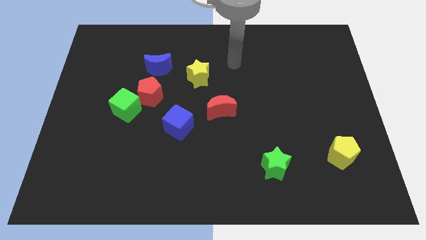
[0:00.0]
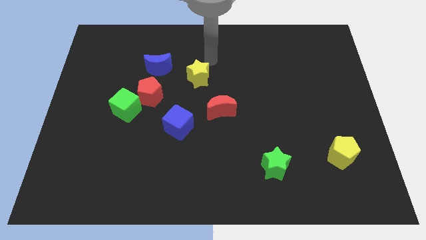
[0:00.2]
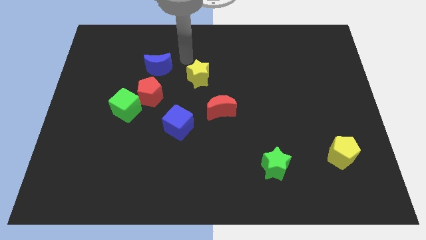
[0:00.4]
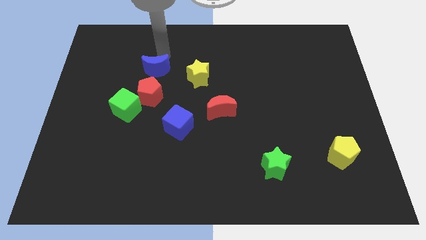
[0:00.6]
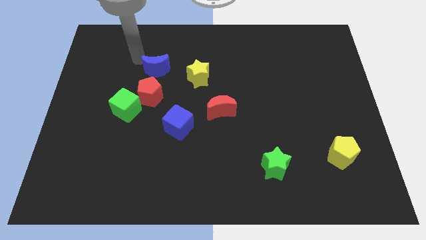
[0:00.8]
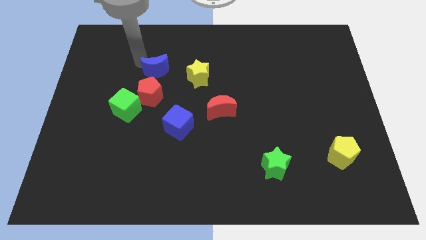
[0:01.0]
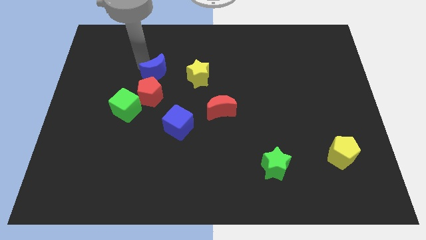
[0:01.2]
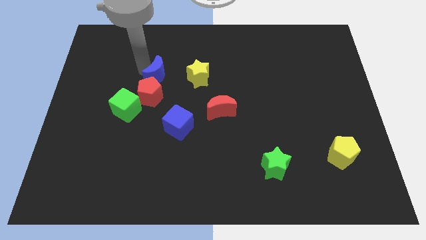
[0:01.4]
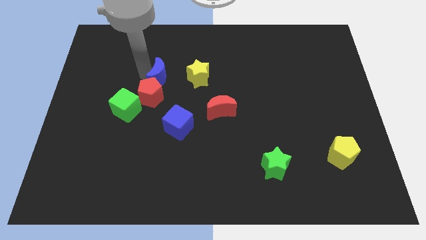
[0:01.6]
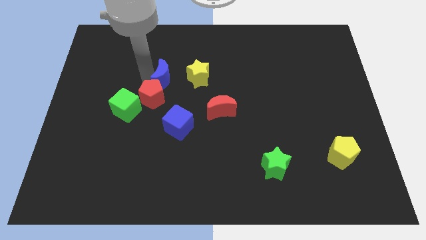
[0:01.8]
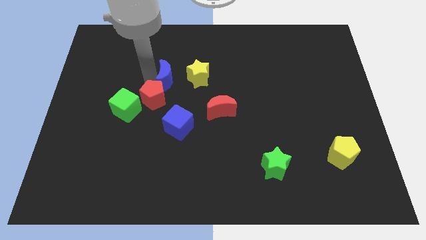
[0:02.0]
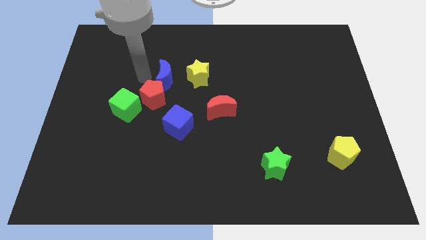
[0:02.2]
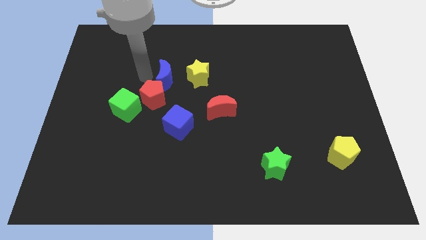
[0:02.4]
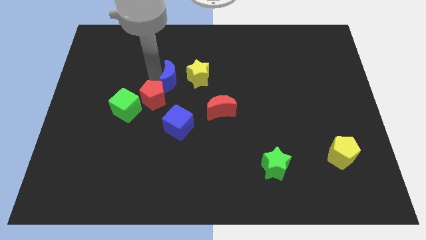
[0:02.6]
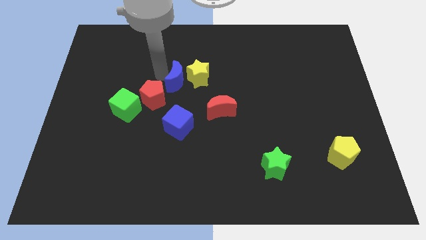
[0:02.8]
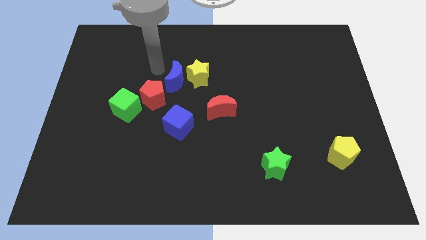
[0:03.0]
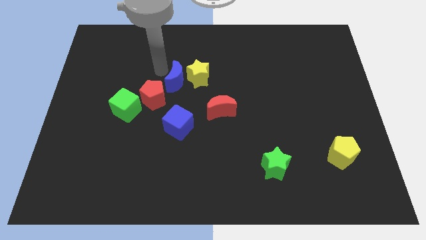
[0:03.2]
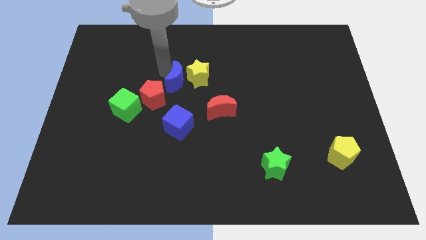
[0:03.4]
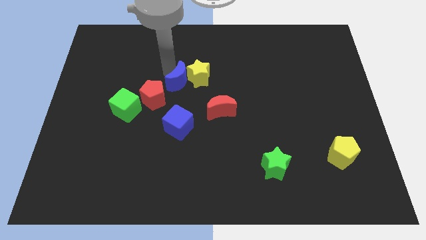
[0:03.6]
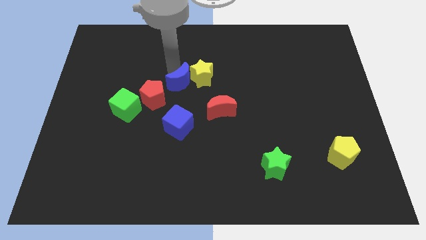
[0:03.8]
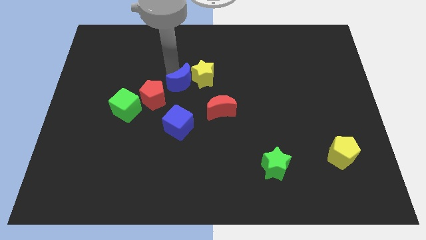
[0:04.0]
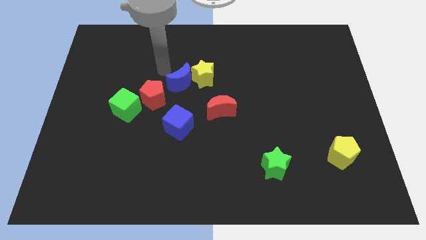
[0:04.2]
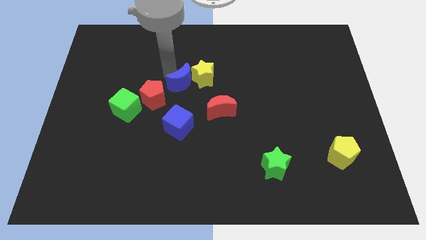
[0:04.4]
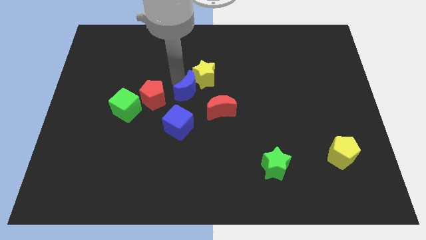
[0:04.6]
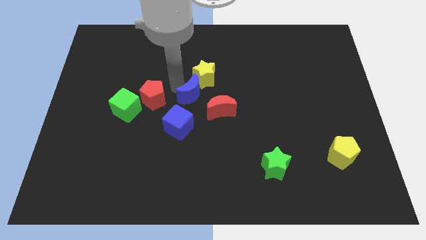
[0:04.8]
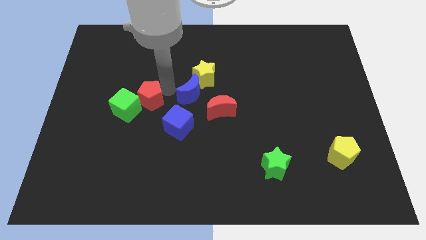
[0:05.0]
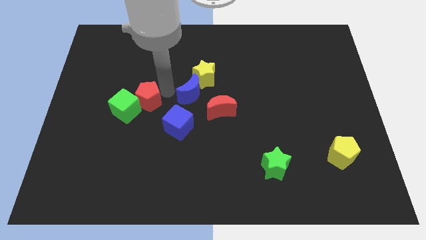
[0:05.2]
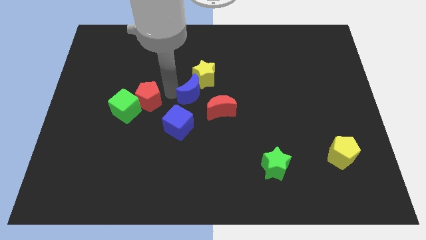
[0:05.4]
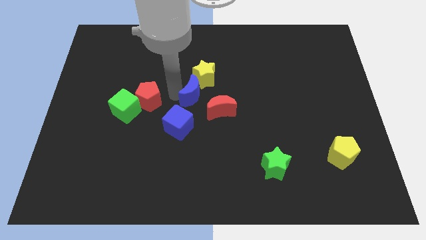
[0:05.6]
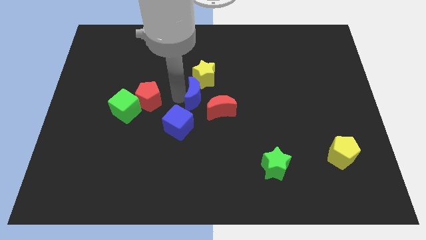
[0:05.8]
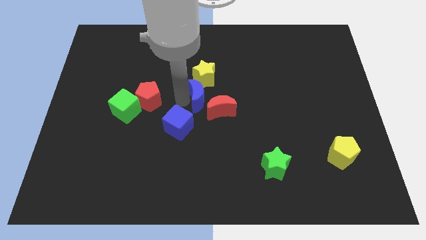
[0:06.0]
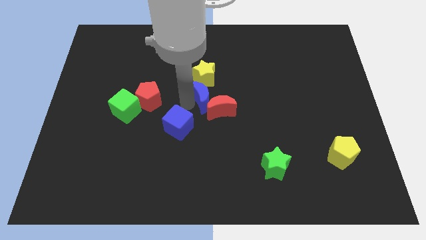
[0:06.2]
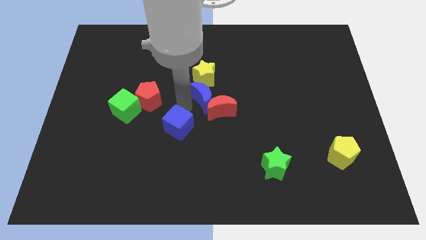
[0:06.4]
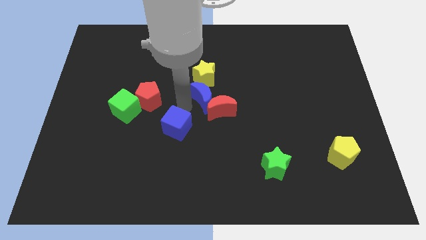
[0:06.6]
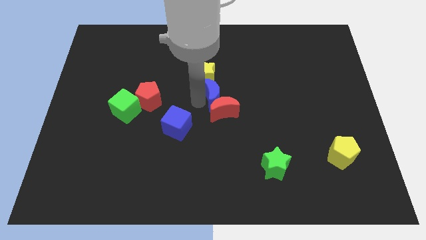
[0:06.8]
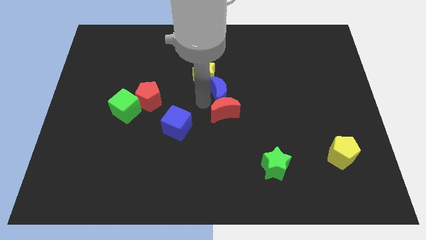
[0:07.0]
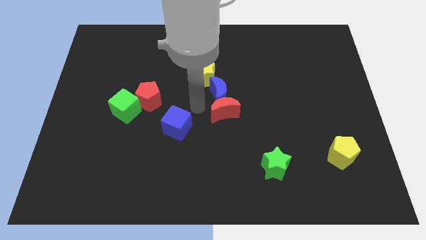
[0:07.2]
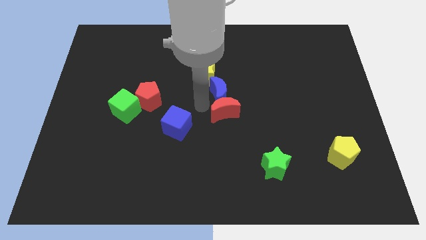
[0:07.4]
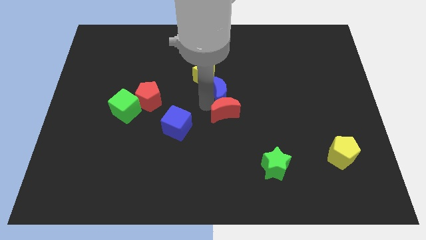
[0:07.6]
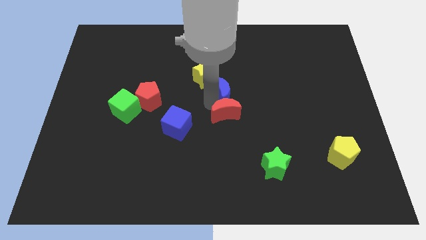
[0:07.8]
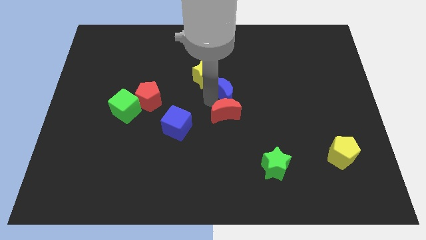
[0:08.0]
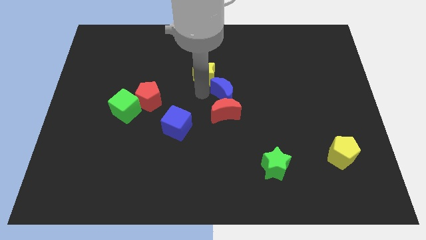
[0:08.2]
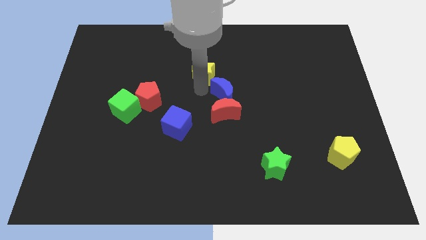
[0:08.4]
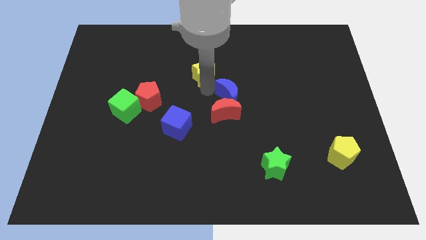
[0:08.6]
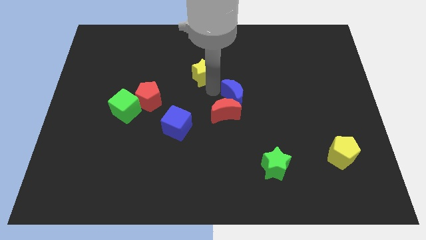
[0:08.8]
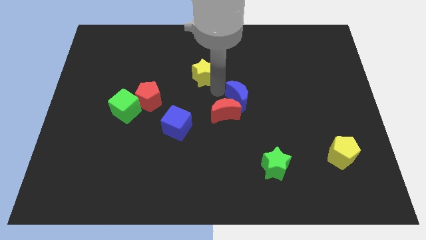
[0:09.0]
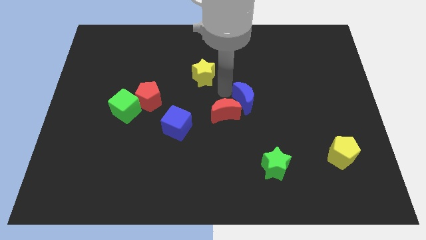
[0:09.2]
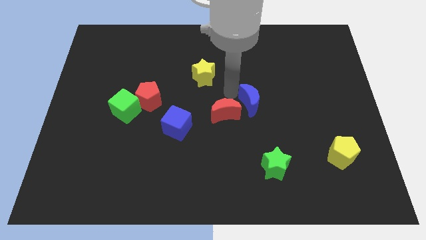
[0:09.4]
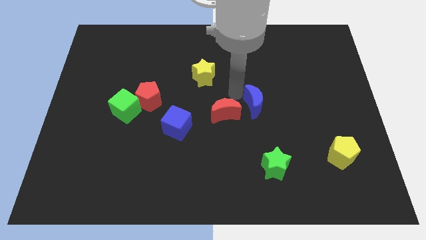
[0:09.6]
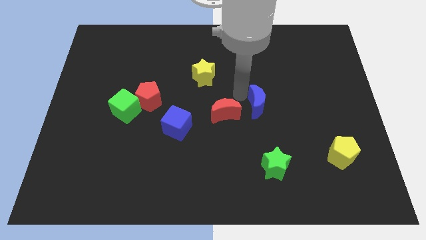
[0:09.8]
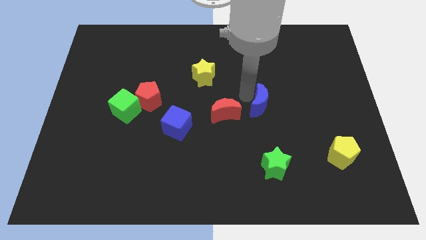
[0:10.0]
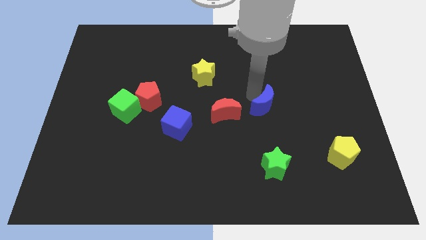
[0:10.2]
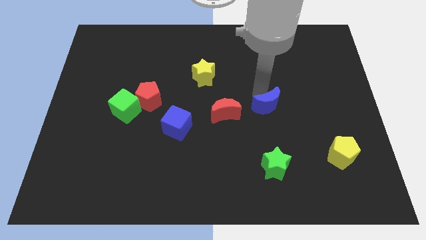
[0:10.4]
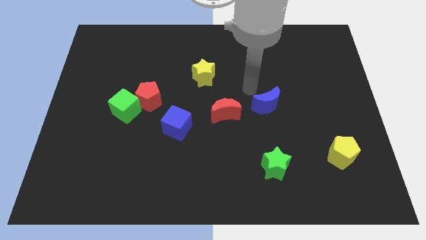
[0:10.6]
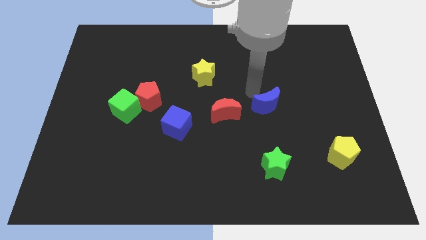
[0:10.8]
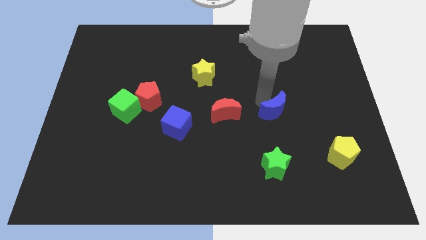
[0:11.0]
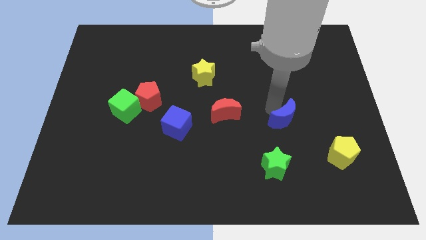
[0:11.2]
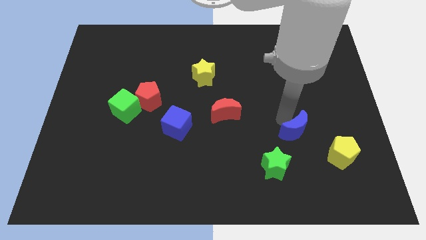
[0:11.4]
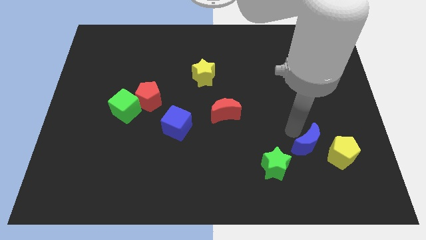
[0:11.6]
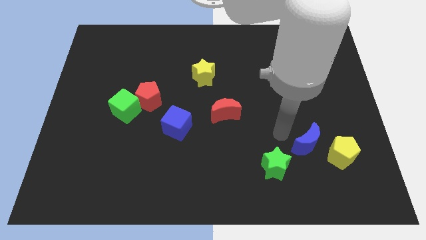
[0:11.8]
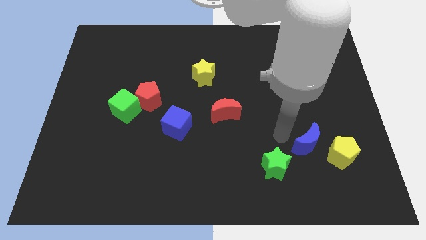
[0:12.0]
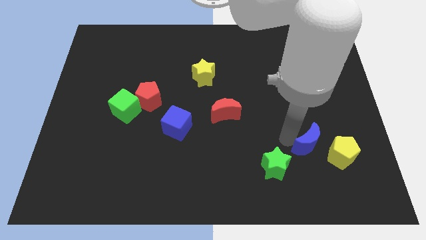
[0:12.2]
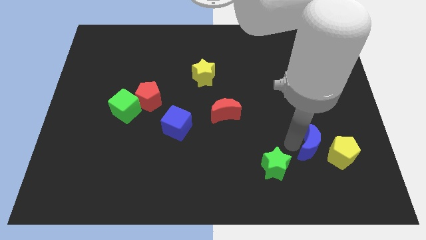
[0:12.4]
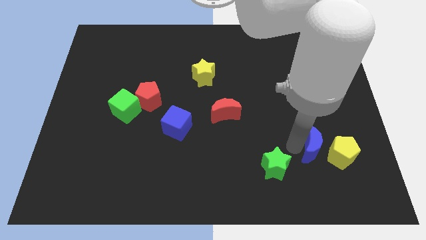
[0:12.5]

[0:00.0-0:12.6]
push the blue moon next to the yellow pentagon

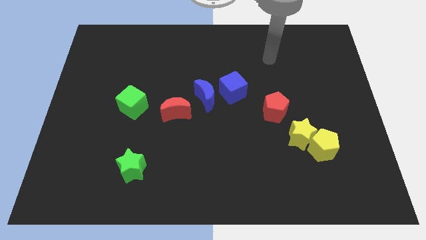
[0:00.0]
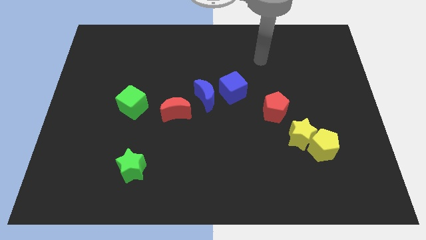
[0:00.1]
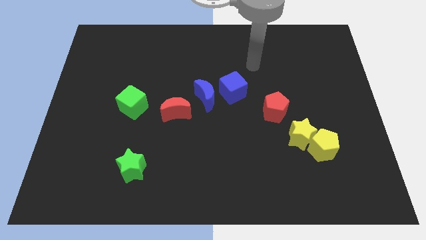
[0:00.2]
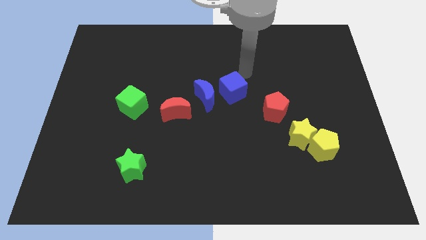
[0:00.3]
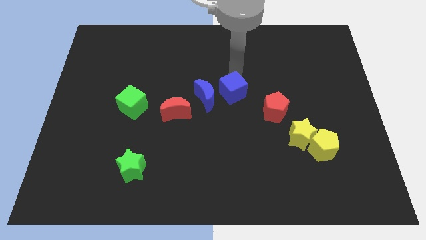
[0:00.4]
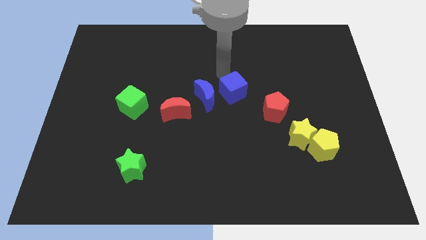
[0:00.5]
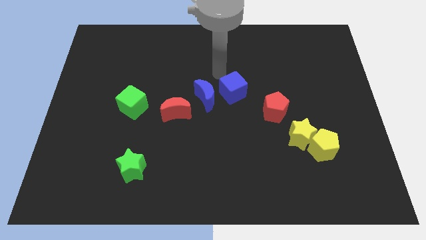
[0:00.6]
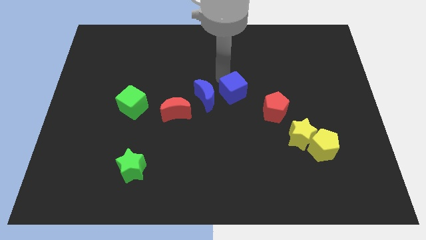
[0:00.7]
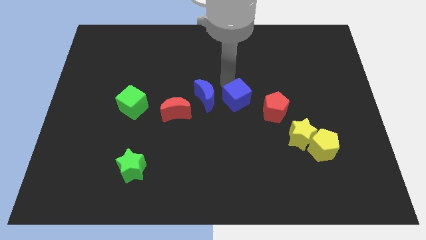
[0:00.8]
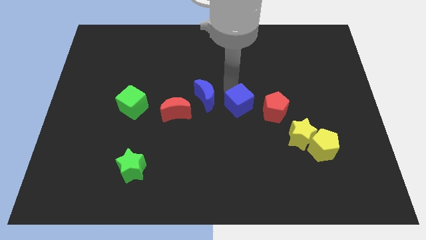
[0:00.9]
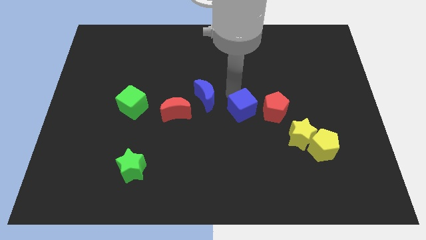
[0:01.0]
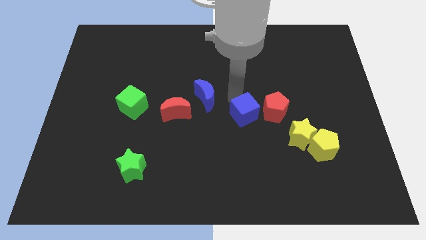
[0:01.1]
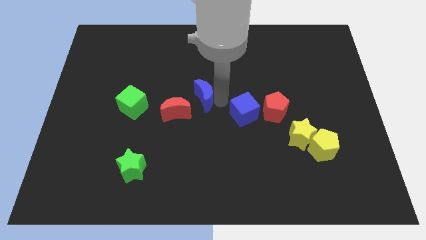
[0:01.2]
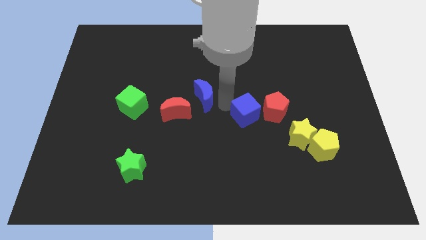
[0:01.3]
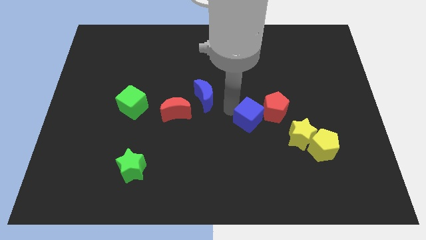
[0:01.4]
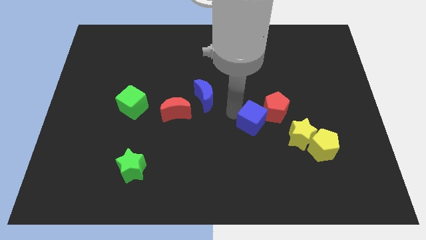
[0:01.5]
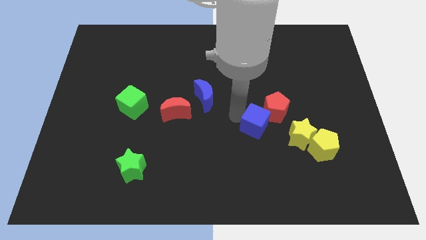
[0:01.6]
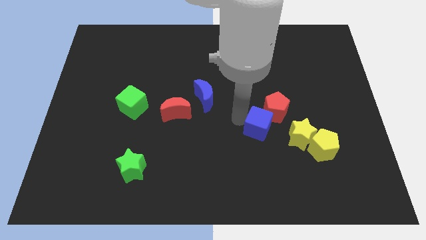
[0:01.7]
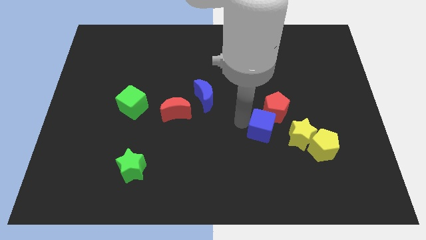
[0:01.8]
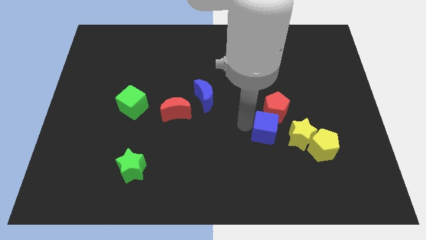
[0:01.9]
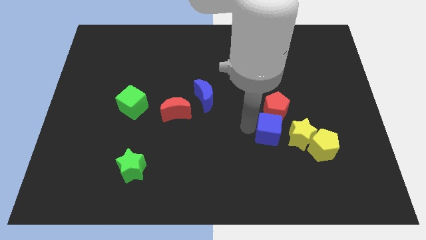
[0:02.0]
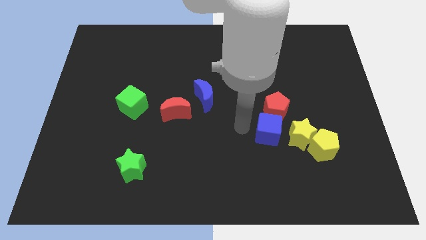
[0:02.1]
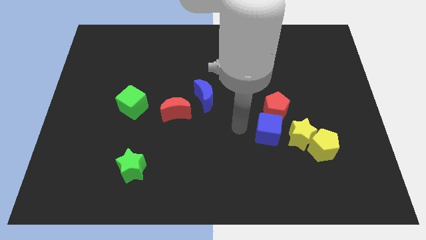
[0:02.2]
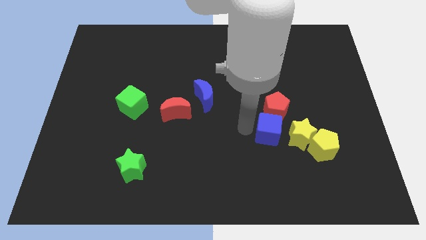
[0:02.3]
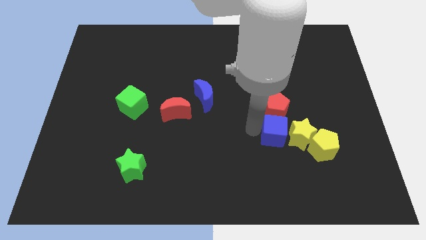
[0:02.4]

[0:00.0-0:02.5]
slide the blue cube towards the yellow star
